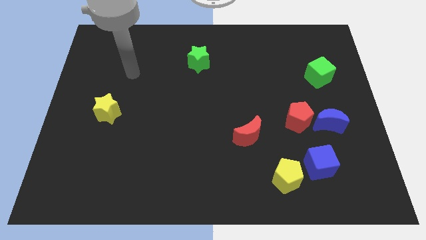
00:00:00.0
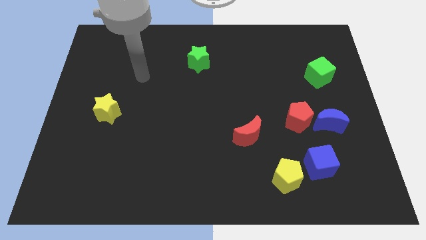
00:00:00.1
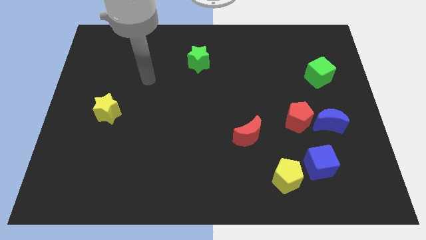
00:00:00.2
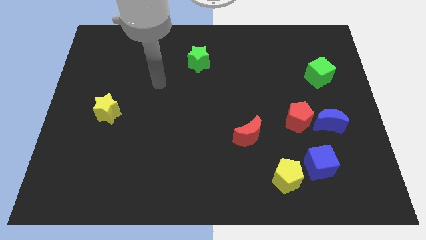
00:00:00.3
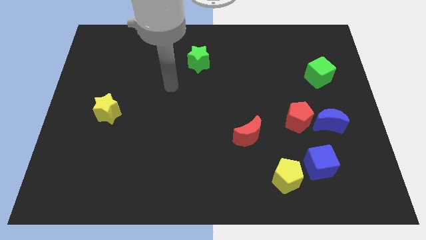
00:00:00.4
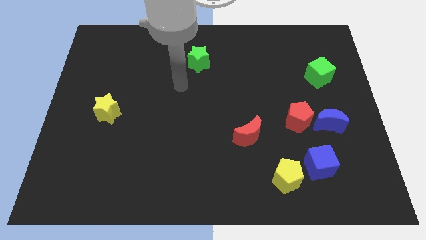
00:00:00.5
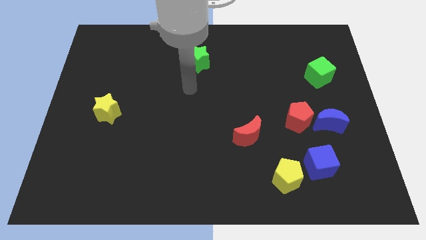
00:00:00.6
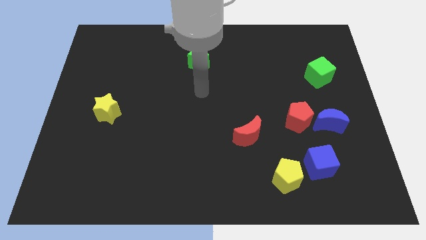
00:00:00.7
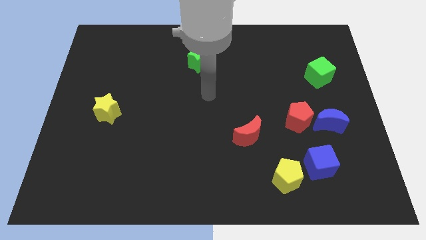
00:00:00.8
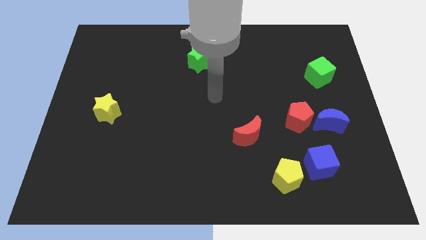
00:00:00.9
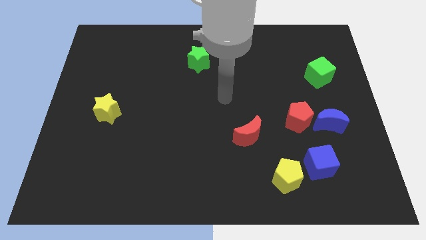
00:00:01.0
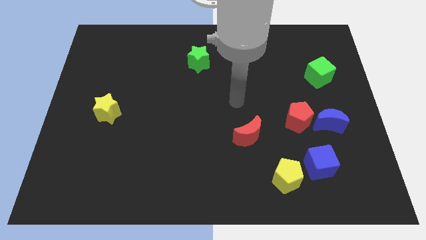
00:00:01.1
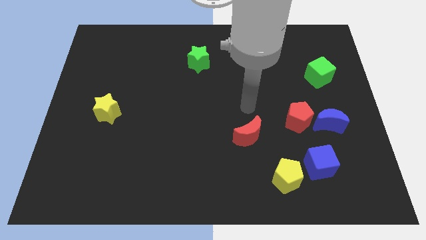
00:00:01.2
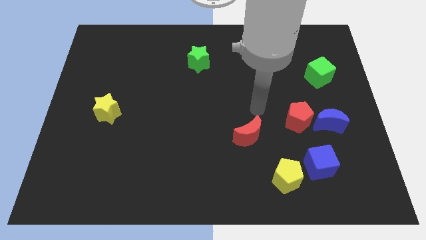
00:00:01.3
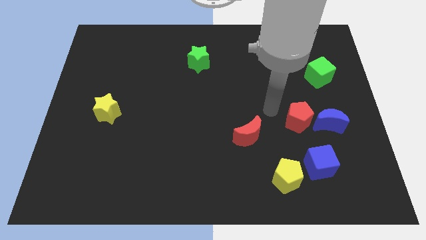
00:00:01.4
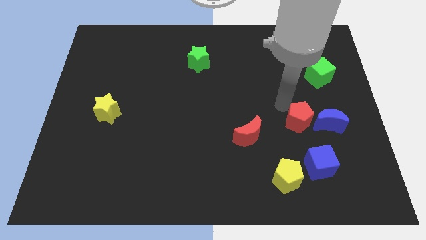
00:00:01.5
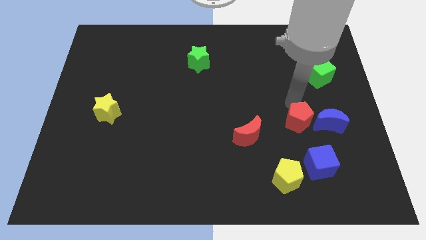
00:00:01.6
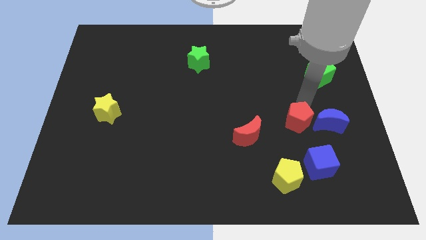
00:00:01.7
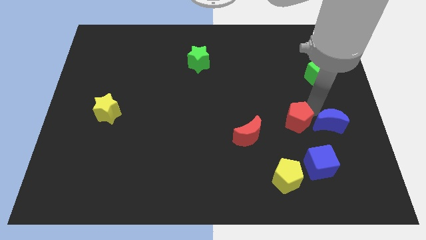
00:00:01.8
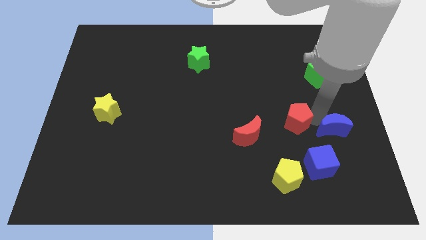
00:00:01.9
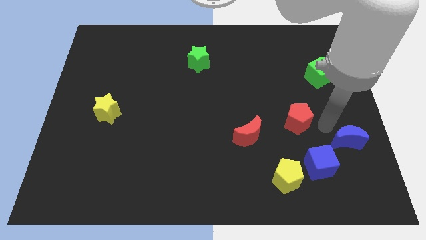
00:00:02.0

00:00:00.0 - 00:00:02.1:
separate the red pentagon from the blue moon

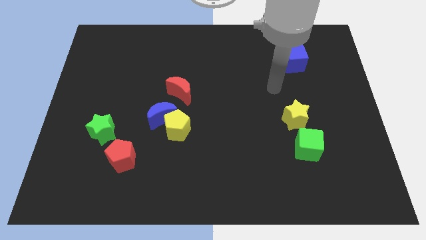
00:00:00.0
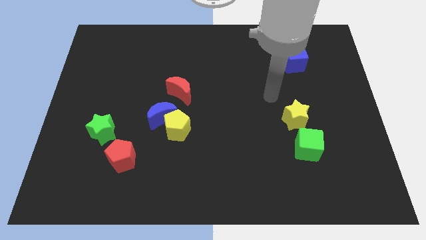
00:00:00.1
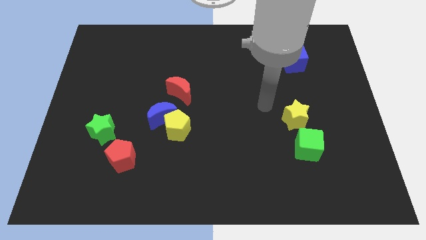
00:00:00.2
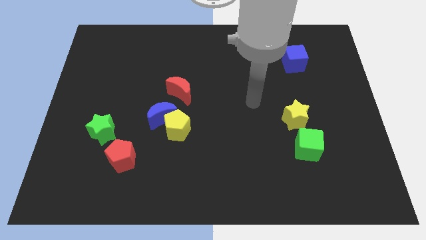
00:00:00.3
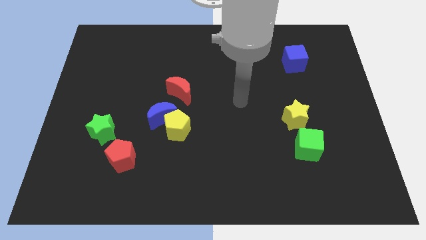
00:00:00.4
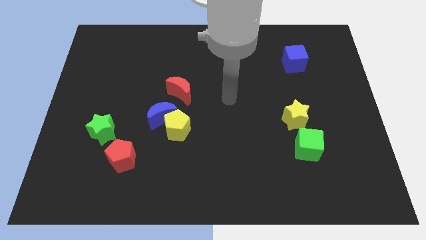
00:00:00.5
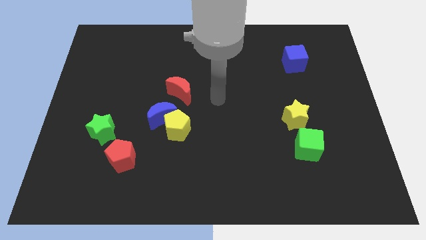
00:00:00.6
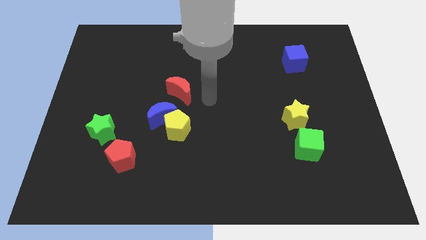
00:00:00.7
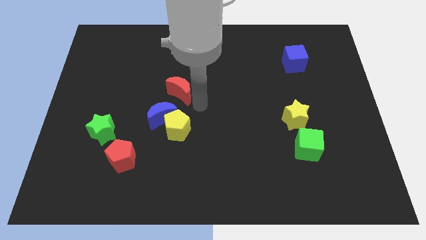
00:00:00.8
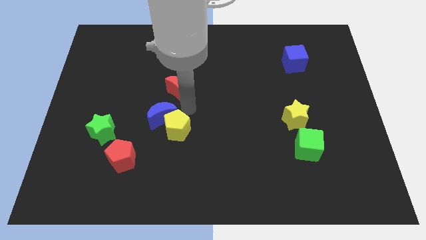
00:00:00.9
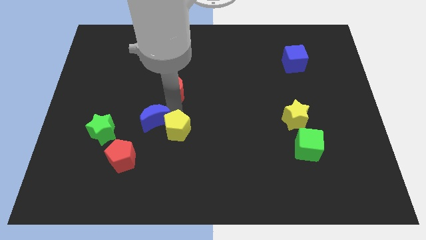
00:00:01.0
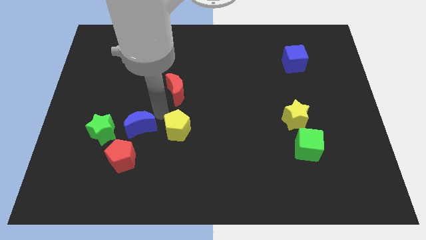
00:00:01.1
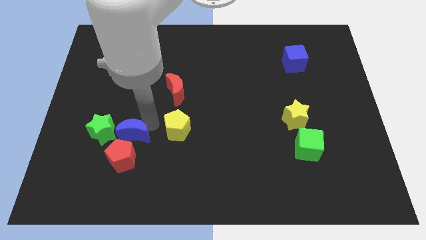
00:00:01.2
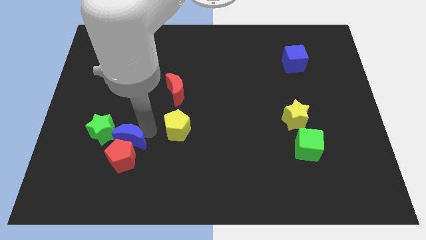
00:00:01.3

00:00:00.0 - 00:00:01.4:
pull the yellow pentagon apart from the blue moon

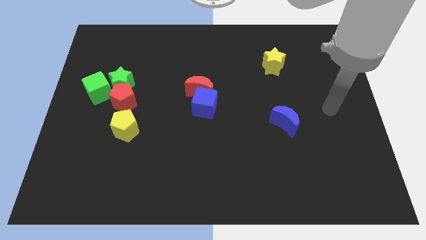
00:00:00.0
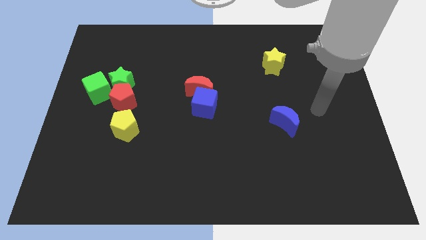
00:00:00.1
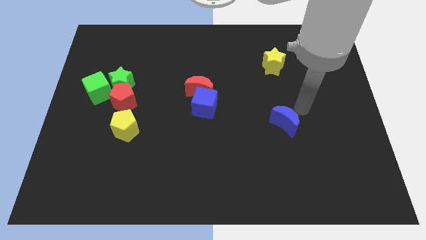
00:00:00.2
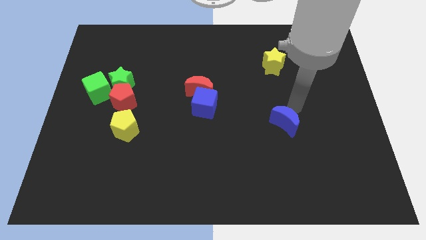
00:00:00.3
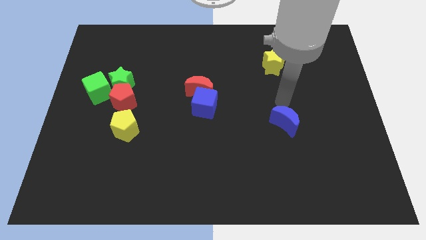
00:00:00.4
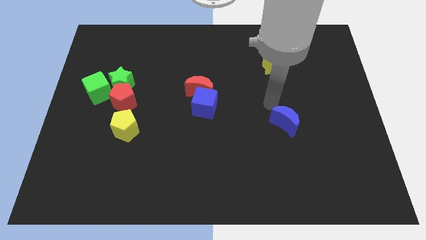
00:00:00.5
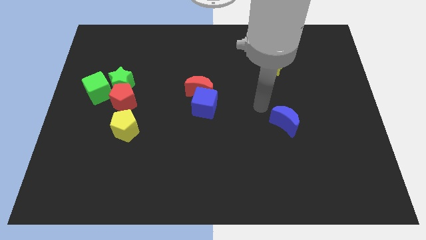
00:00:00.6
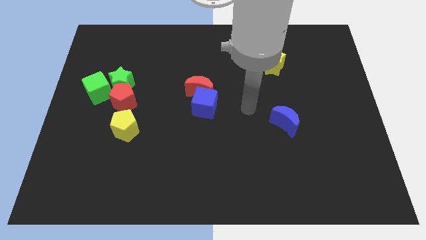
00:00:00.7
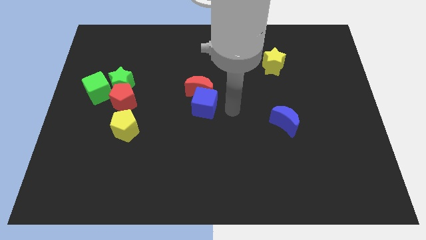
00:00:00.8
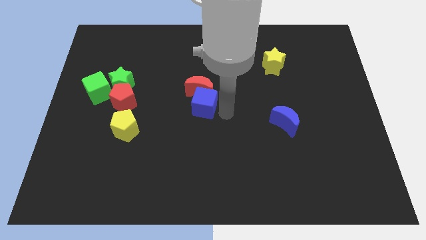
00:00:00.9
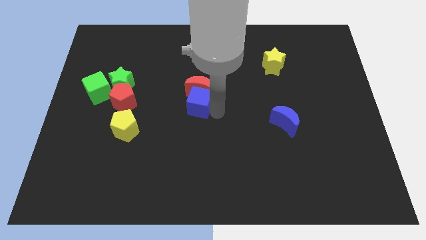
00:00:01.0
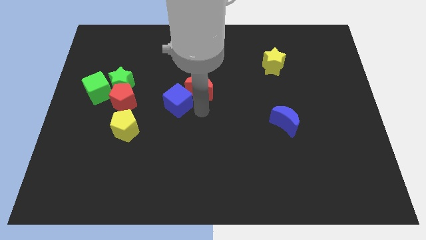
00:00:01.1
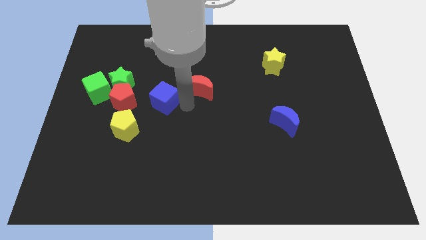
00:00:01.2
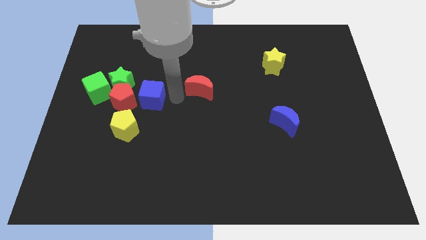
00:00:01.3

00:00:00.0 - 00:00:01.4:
separate the red moon from the blue cube

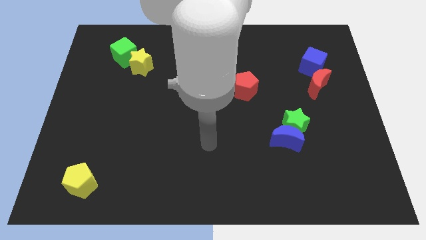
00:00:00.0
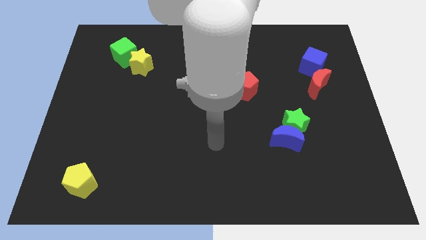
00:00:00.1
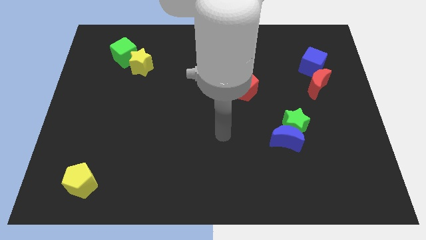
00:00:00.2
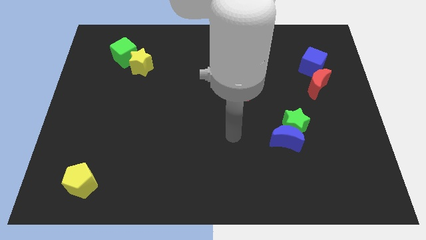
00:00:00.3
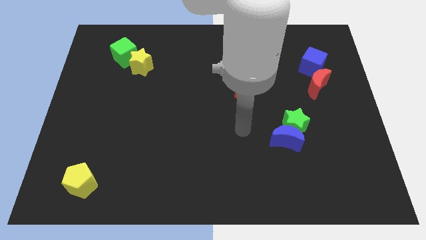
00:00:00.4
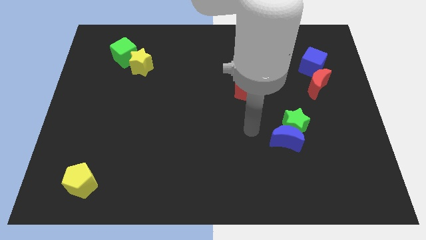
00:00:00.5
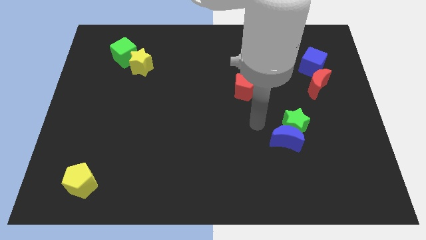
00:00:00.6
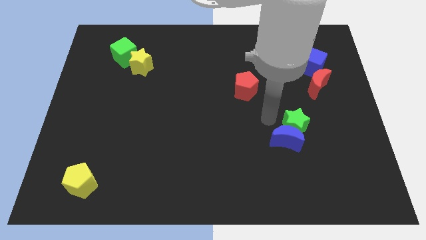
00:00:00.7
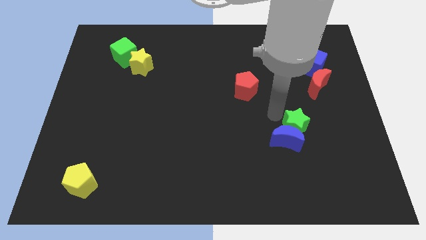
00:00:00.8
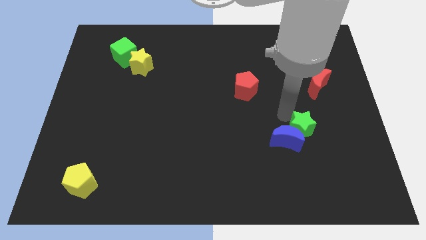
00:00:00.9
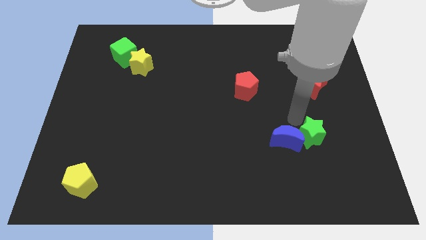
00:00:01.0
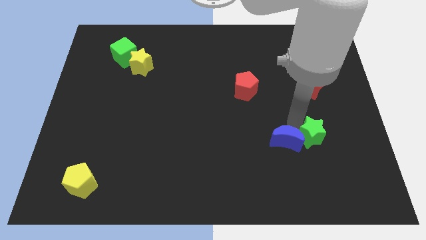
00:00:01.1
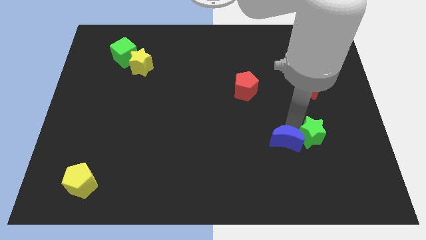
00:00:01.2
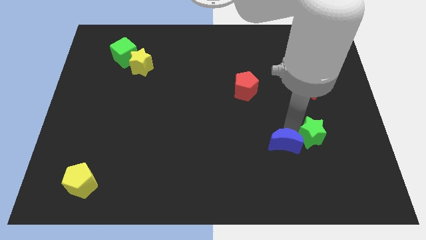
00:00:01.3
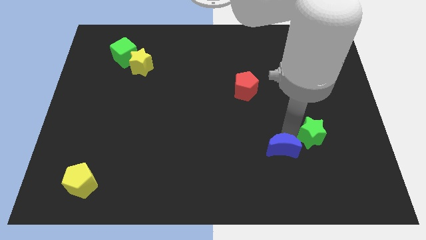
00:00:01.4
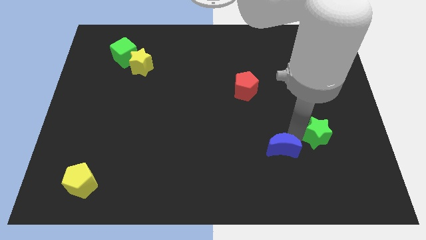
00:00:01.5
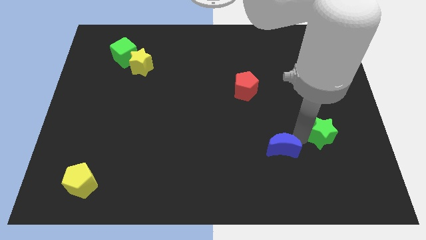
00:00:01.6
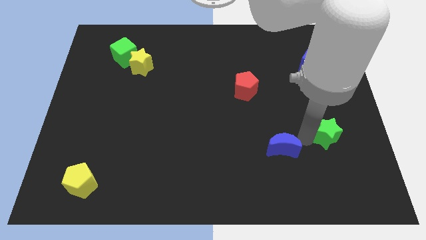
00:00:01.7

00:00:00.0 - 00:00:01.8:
pull the blue moon apart from the green star

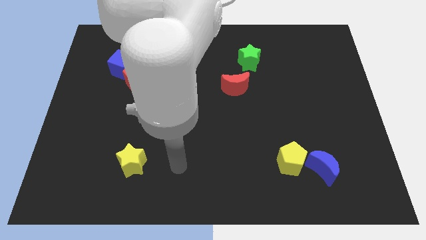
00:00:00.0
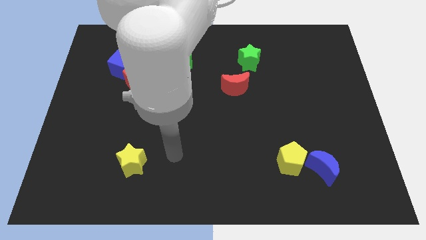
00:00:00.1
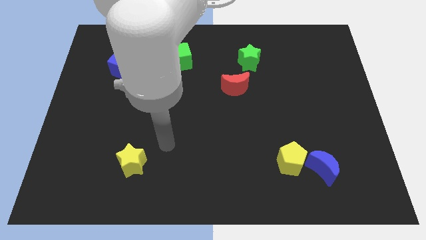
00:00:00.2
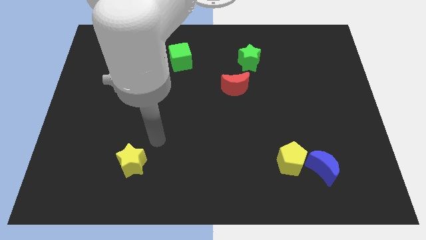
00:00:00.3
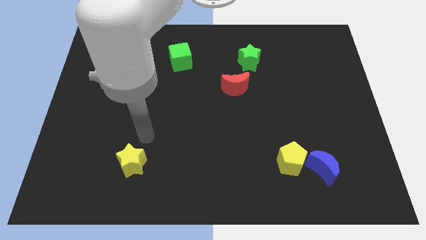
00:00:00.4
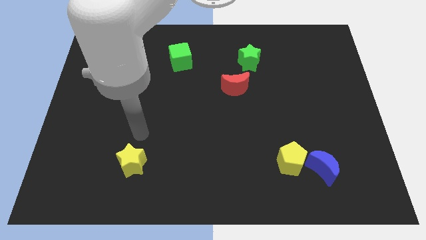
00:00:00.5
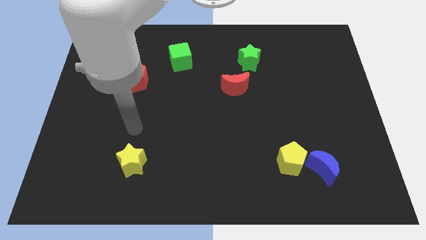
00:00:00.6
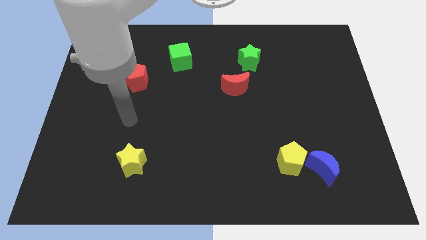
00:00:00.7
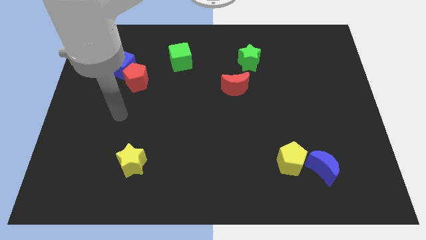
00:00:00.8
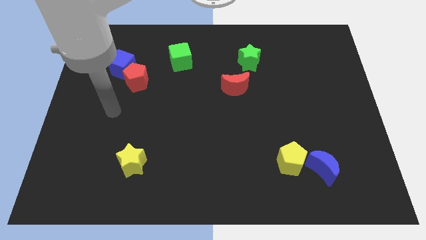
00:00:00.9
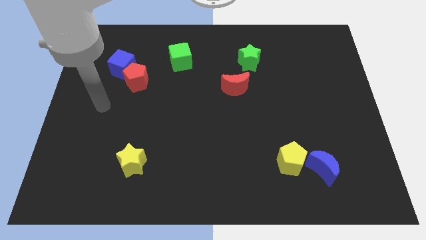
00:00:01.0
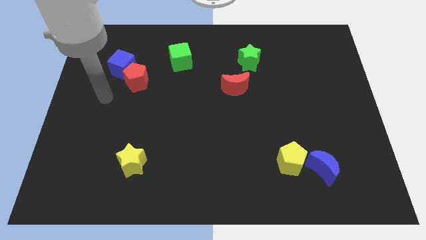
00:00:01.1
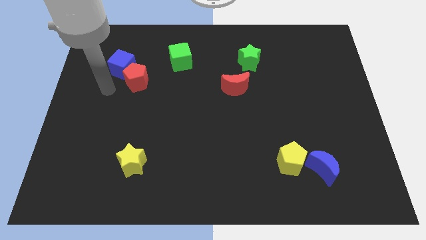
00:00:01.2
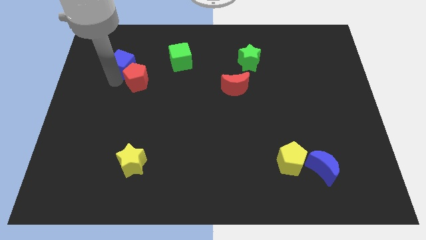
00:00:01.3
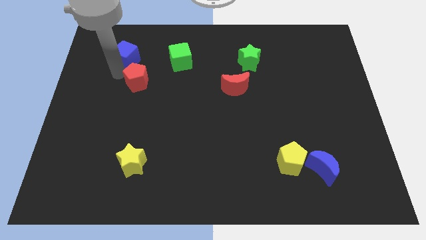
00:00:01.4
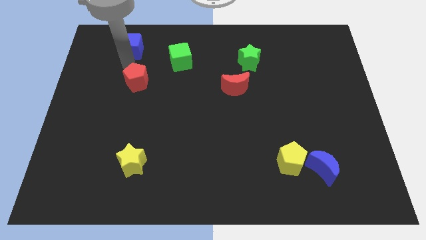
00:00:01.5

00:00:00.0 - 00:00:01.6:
pull the red pentagon apart from the blue cube

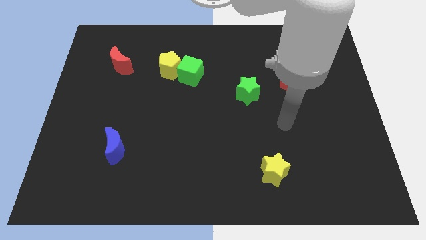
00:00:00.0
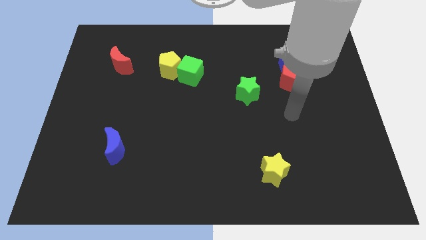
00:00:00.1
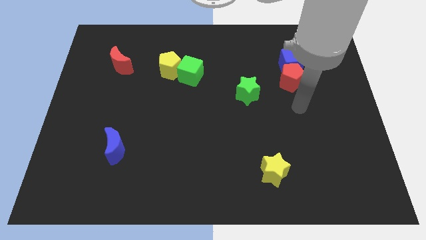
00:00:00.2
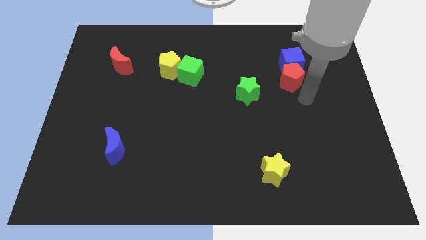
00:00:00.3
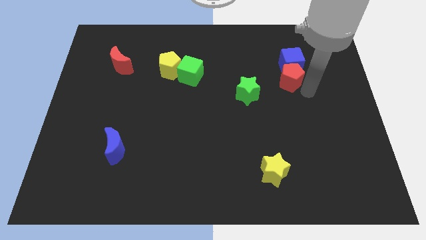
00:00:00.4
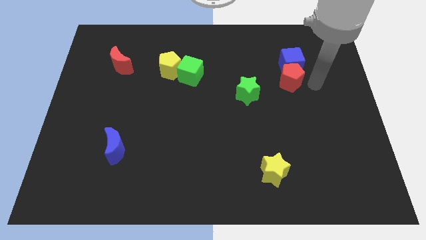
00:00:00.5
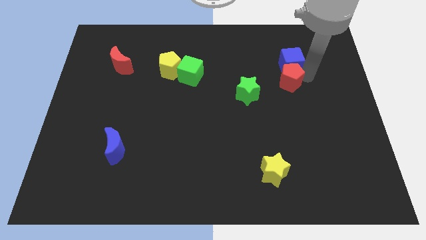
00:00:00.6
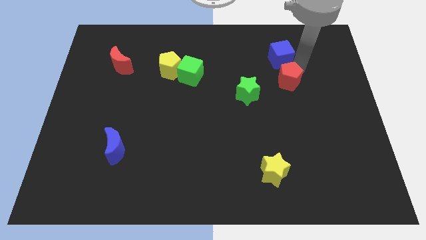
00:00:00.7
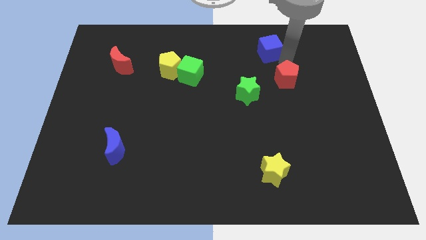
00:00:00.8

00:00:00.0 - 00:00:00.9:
move the red pentagon away from the blue cube
